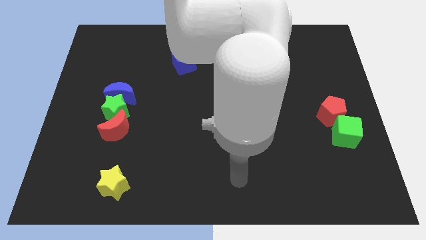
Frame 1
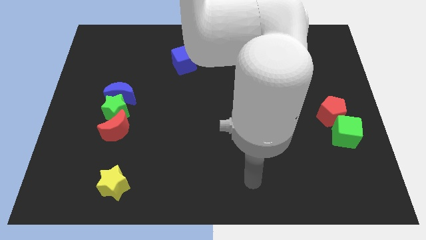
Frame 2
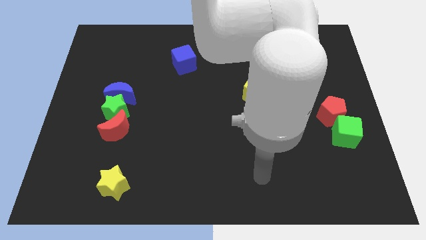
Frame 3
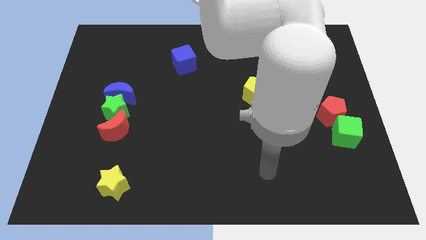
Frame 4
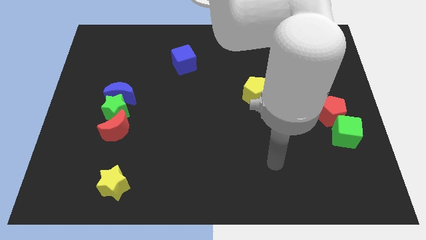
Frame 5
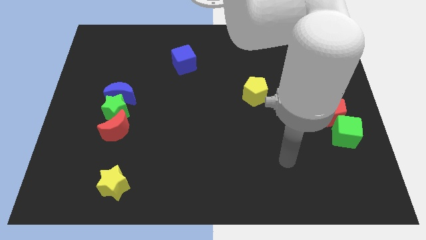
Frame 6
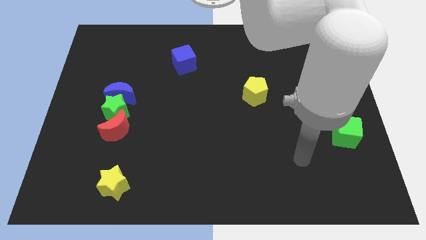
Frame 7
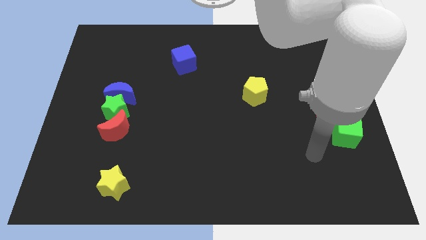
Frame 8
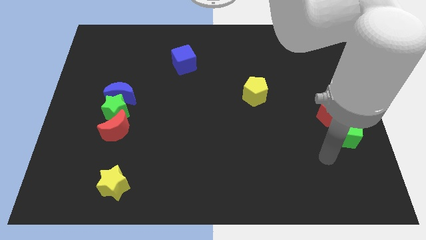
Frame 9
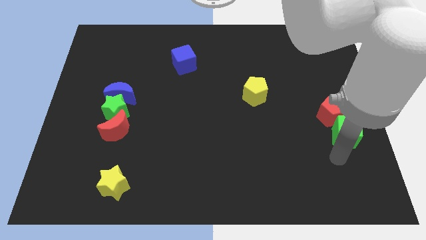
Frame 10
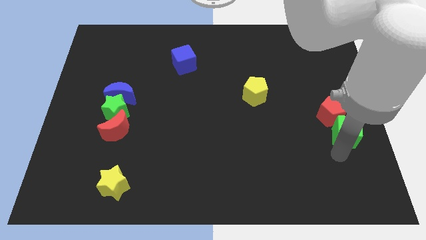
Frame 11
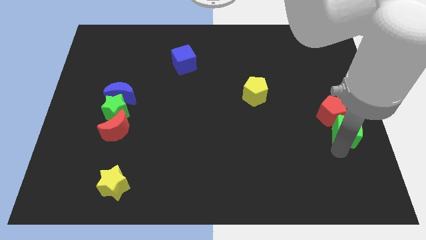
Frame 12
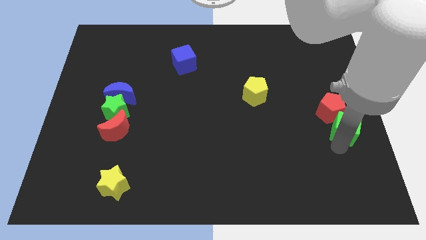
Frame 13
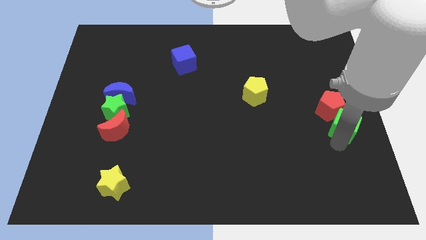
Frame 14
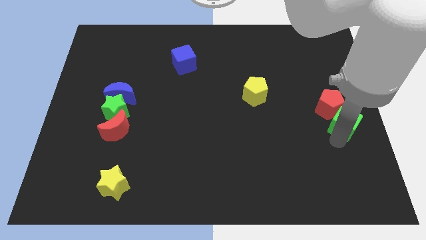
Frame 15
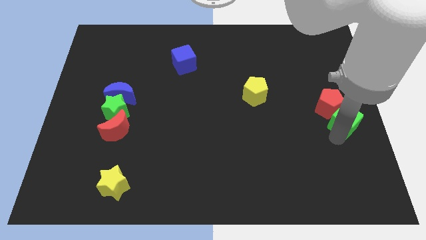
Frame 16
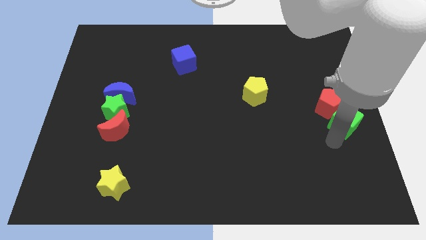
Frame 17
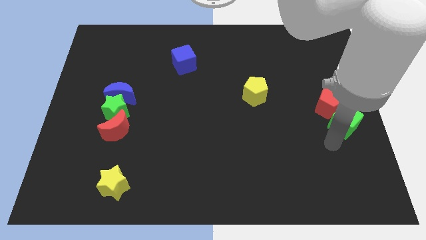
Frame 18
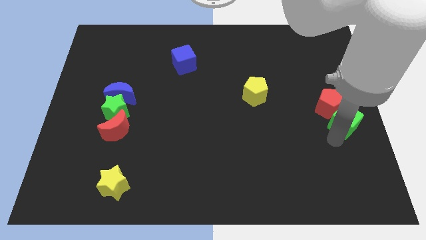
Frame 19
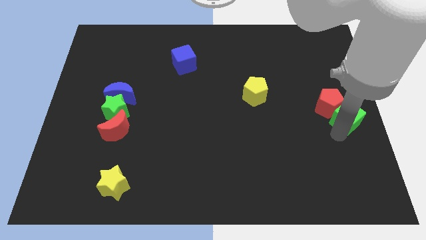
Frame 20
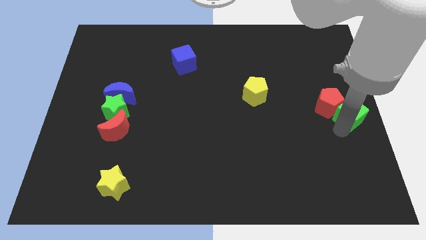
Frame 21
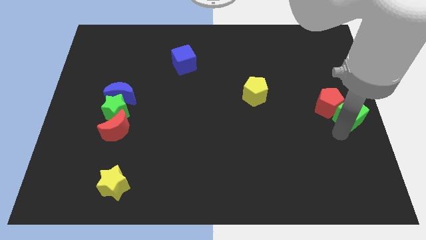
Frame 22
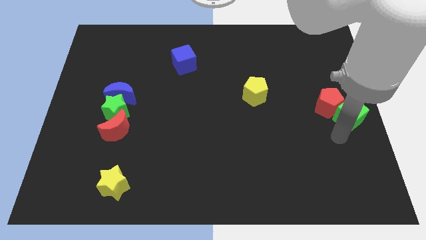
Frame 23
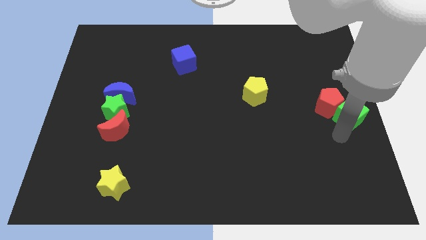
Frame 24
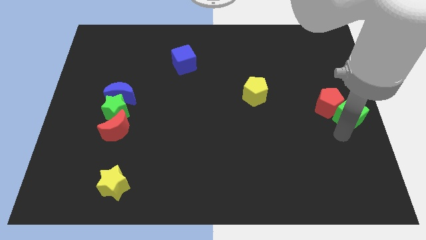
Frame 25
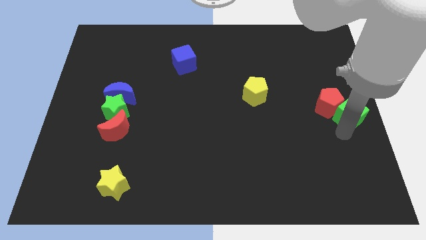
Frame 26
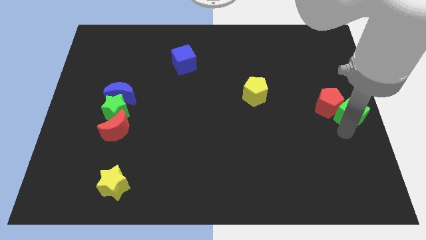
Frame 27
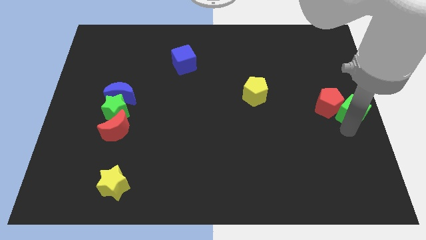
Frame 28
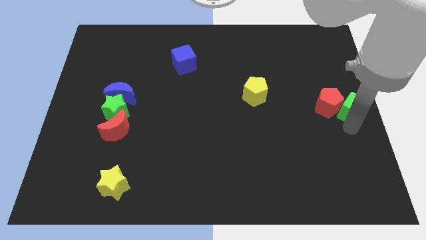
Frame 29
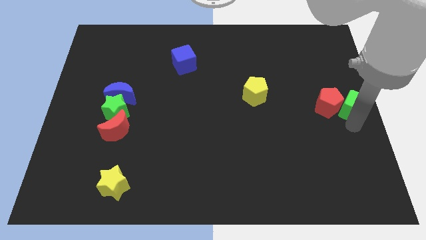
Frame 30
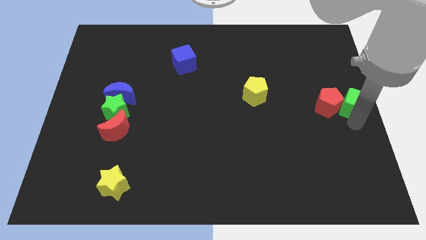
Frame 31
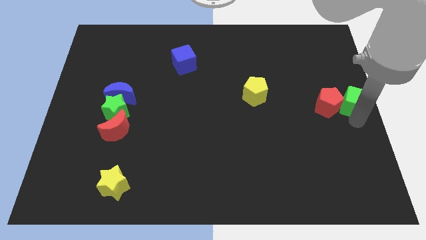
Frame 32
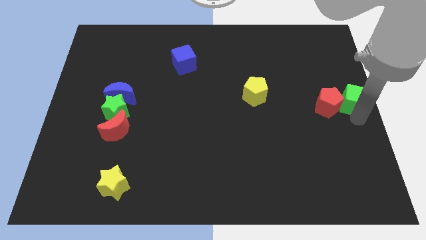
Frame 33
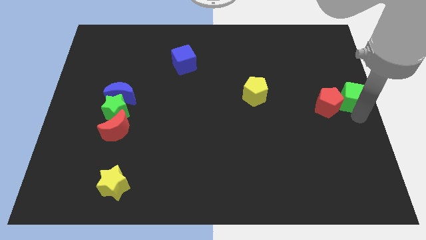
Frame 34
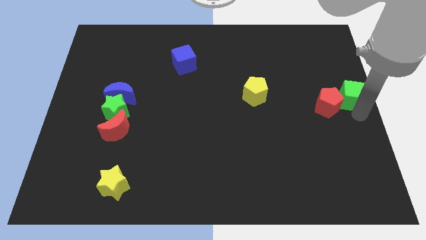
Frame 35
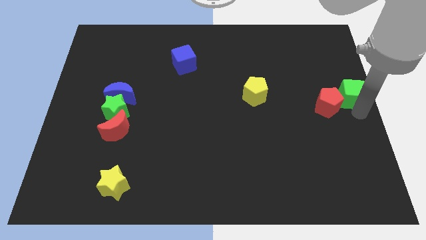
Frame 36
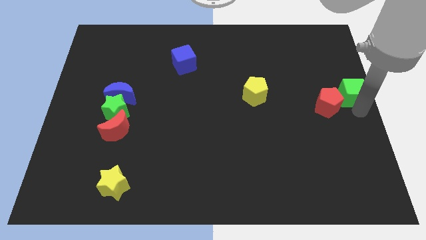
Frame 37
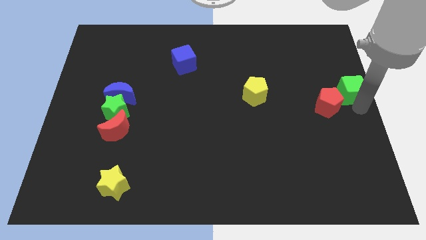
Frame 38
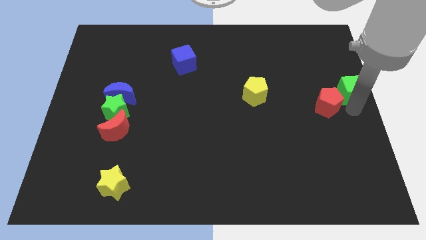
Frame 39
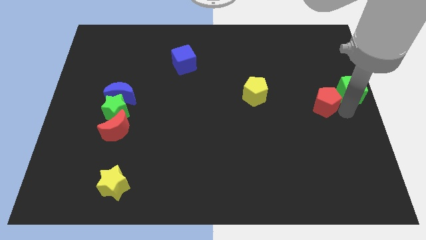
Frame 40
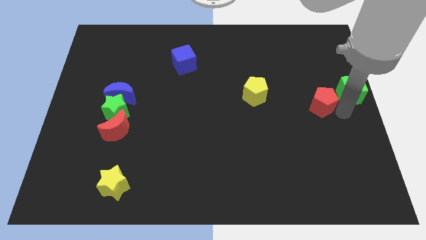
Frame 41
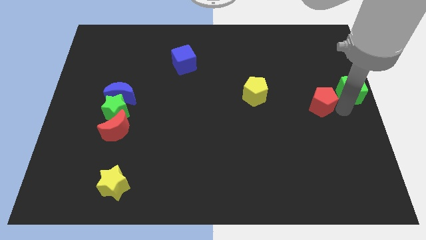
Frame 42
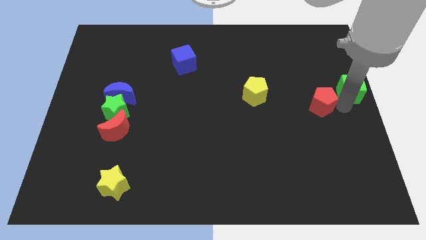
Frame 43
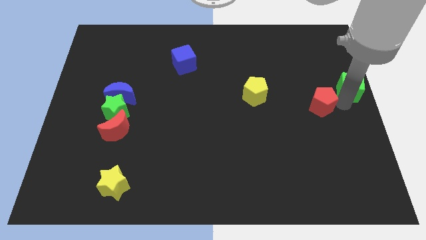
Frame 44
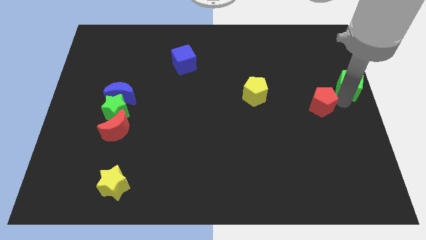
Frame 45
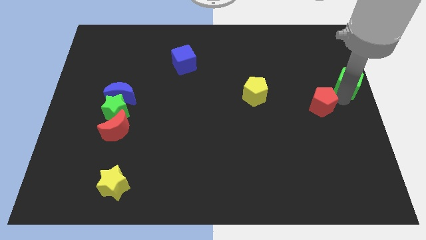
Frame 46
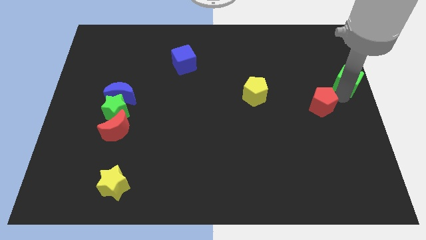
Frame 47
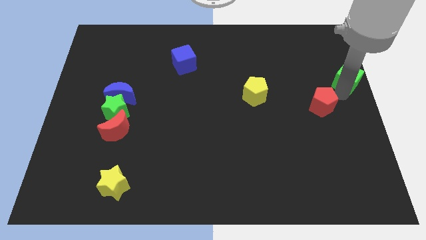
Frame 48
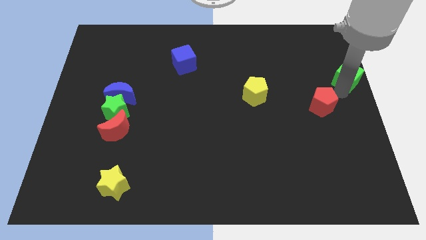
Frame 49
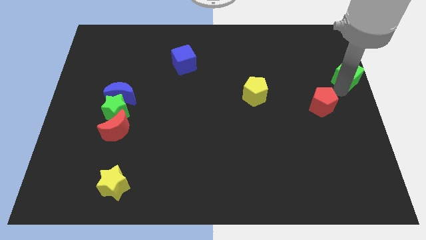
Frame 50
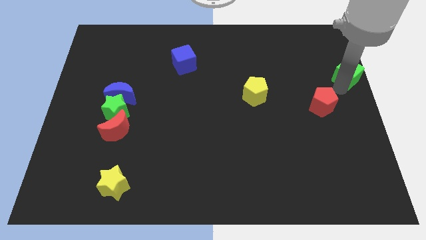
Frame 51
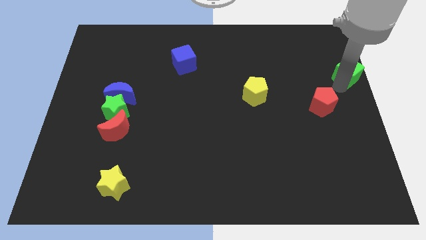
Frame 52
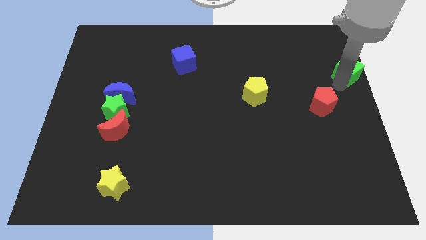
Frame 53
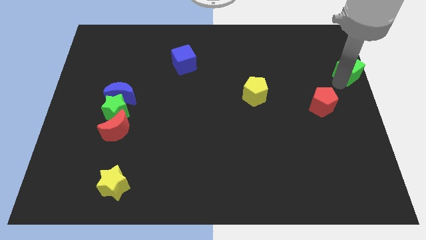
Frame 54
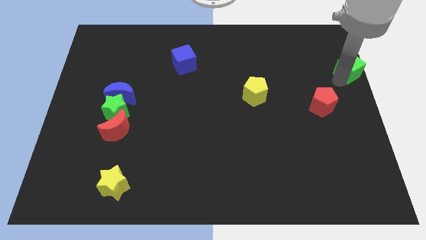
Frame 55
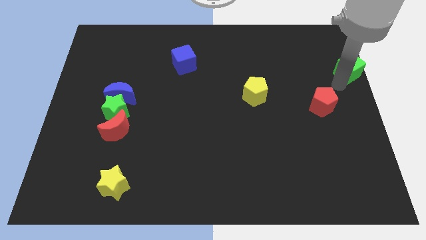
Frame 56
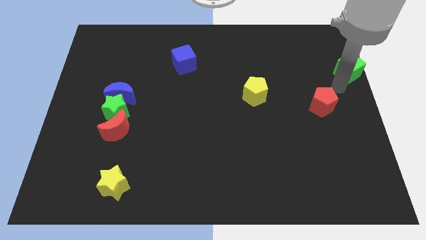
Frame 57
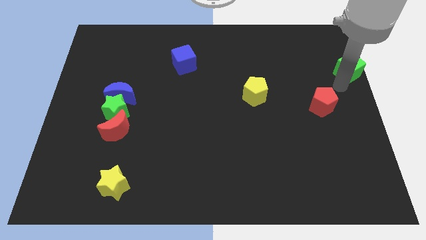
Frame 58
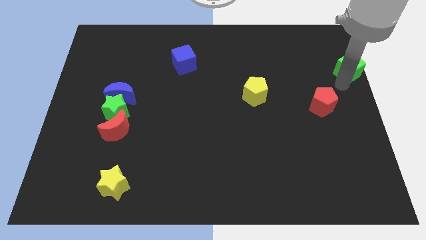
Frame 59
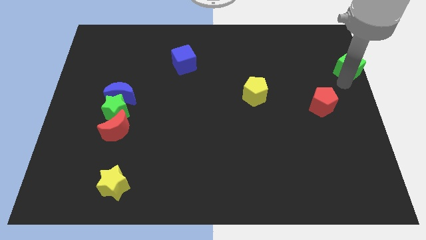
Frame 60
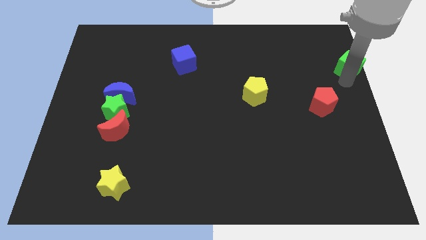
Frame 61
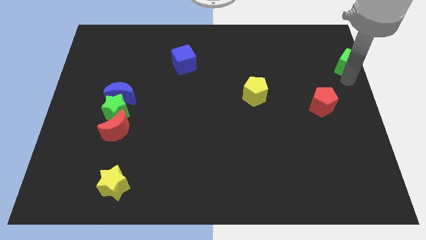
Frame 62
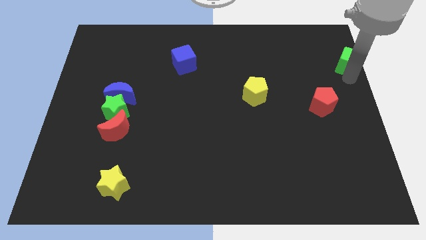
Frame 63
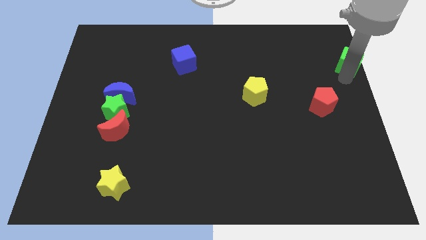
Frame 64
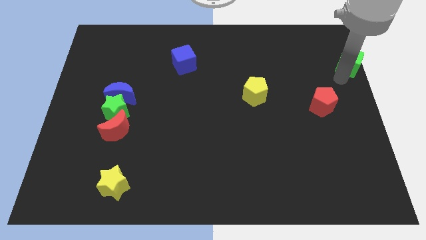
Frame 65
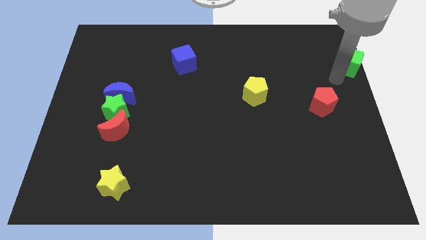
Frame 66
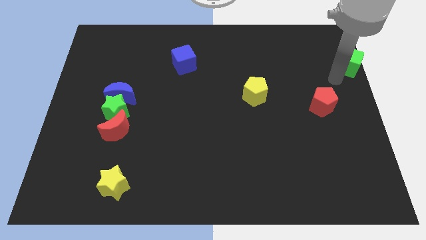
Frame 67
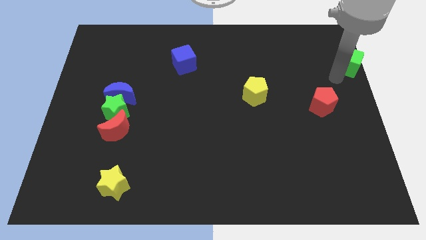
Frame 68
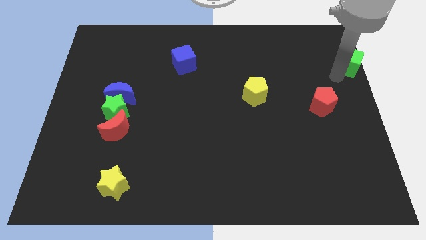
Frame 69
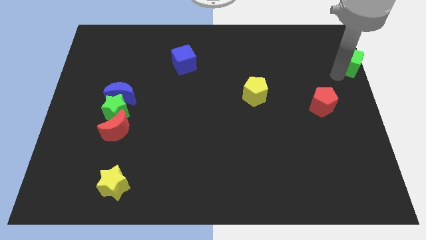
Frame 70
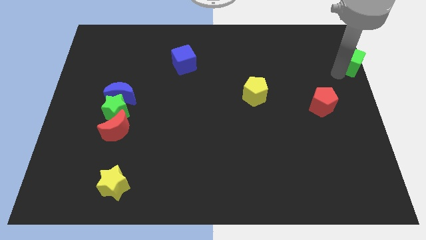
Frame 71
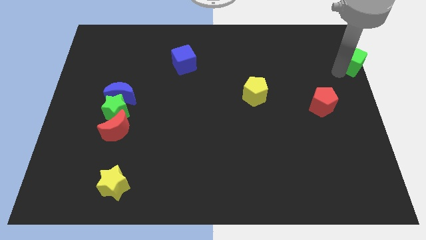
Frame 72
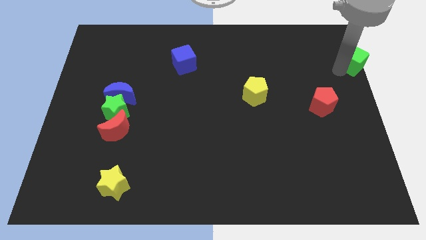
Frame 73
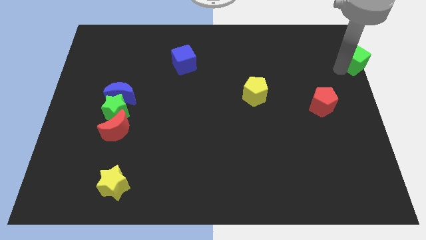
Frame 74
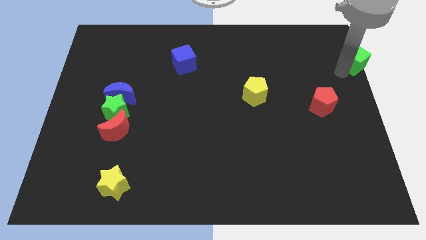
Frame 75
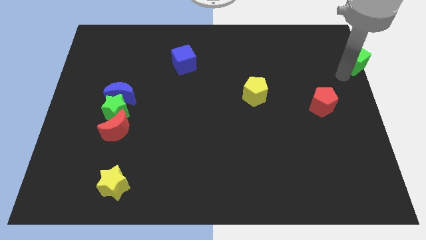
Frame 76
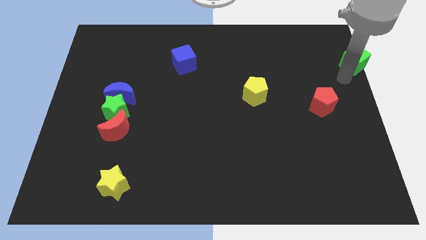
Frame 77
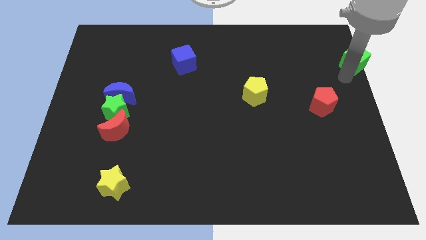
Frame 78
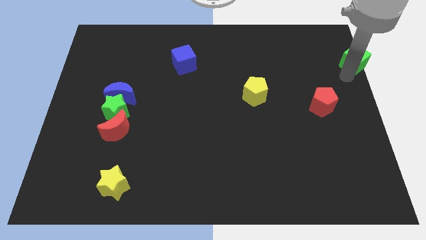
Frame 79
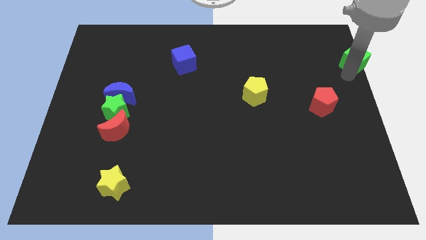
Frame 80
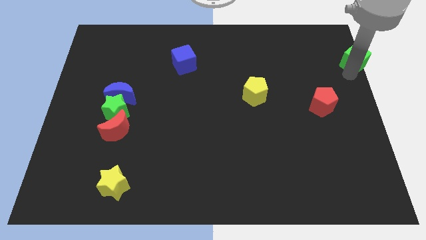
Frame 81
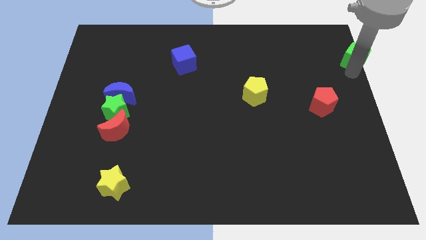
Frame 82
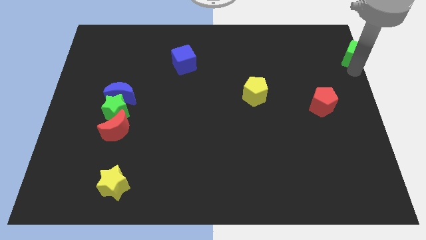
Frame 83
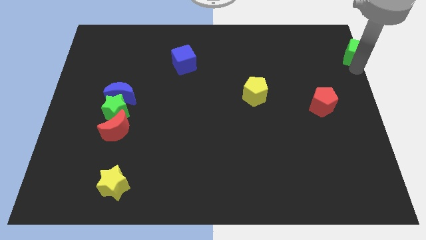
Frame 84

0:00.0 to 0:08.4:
put the green cube to the upper right corner
